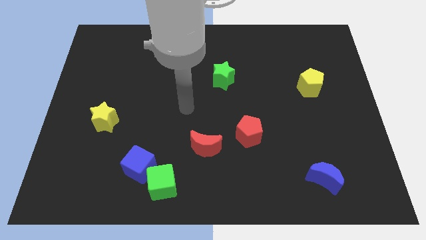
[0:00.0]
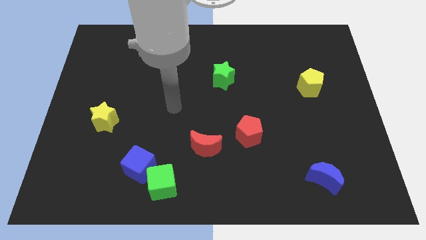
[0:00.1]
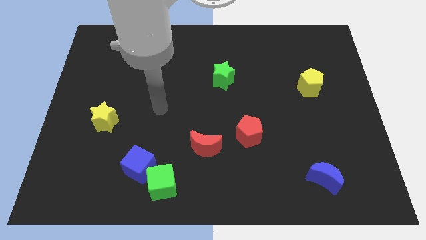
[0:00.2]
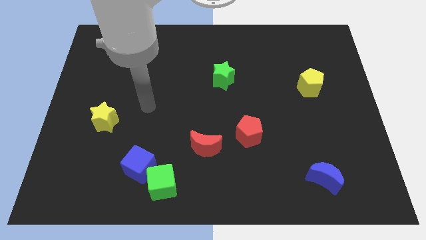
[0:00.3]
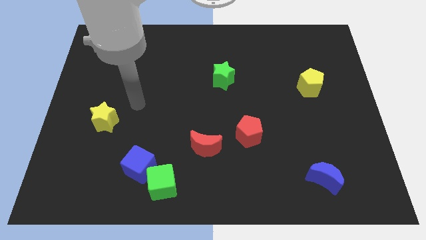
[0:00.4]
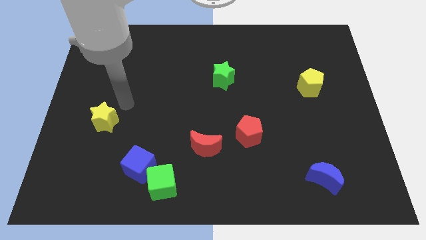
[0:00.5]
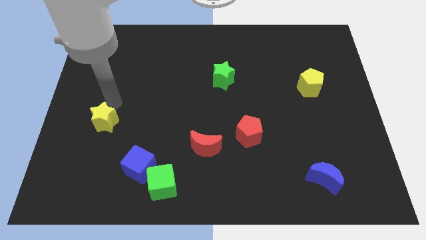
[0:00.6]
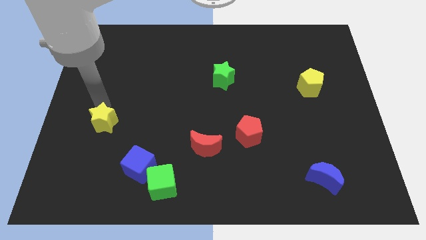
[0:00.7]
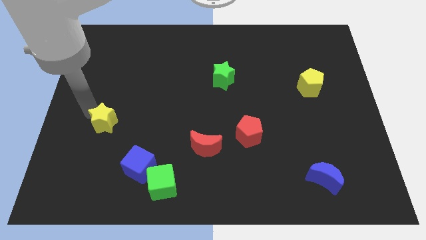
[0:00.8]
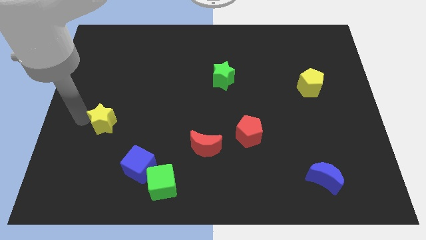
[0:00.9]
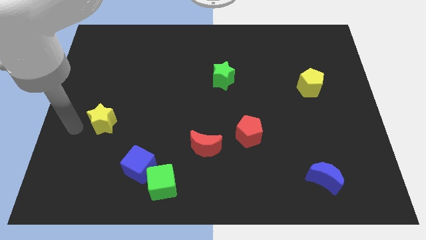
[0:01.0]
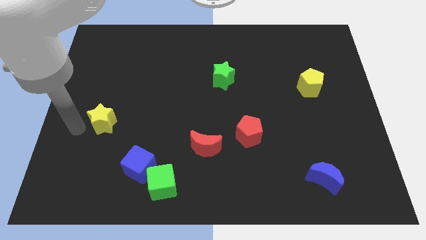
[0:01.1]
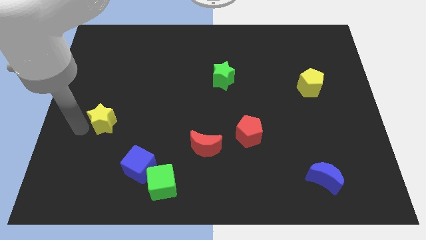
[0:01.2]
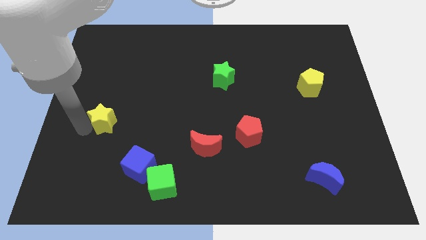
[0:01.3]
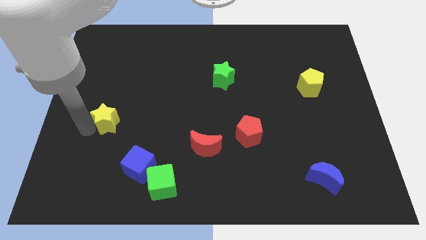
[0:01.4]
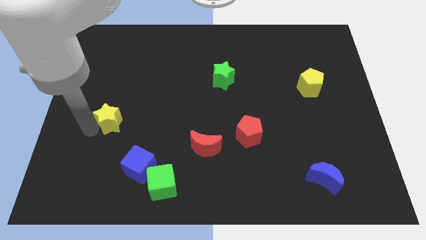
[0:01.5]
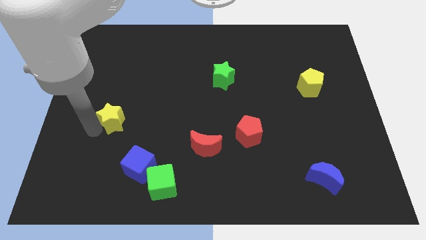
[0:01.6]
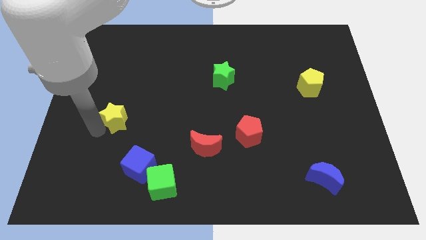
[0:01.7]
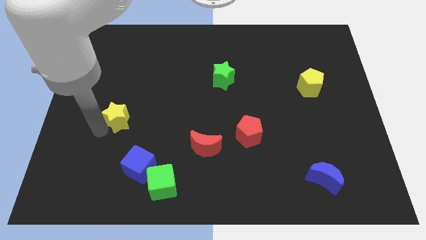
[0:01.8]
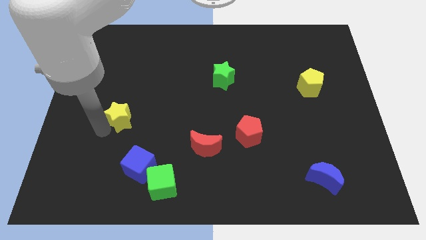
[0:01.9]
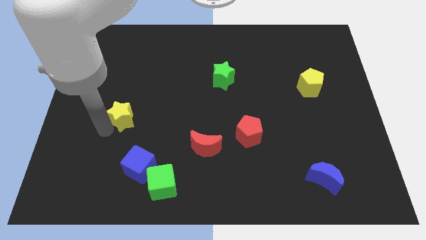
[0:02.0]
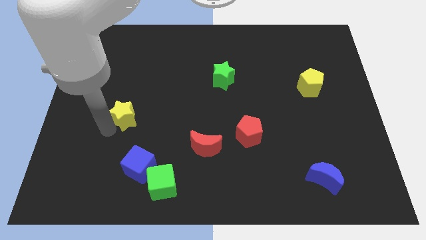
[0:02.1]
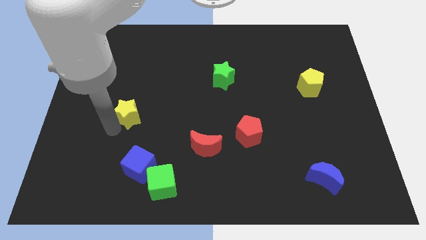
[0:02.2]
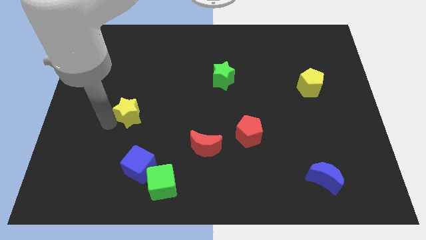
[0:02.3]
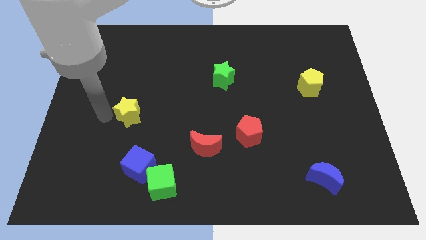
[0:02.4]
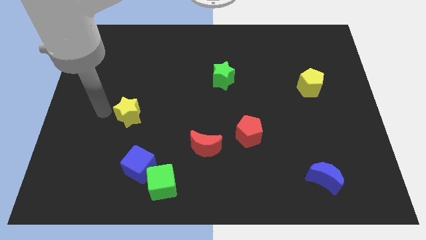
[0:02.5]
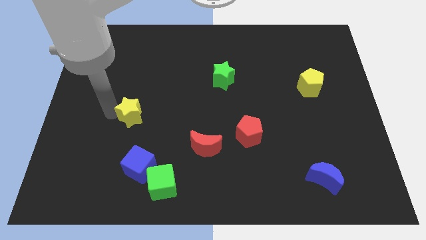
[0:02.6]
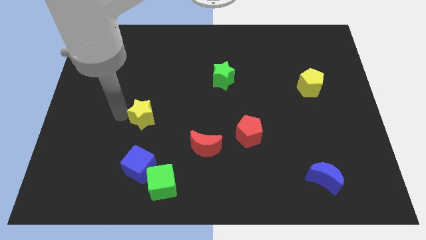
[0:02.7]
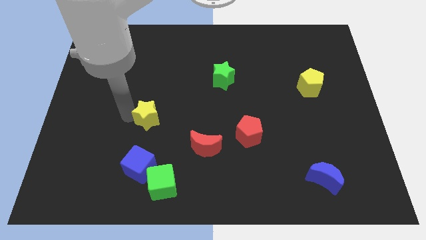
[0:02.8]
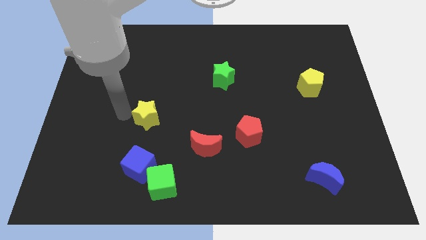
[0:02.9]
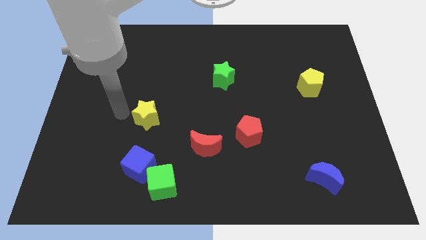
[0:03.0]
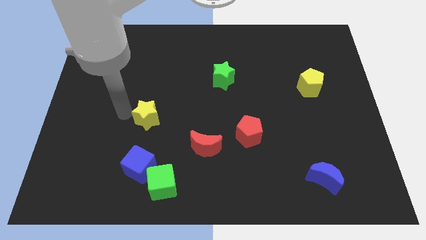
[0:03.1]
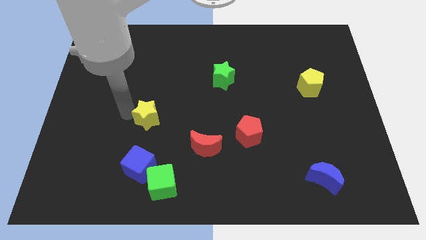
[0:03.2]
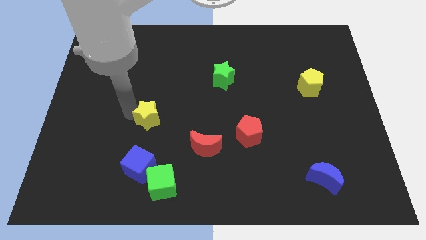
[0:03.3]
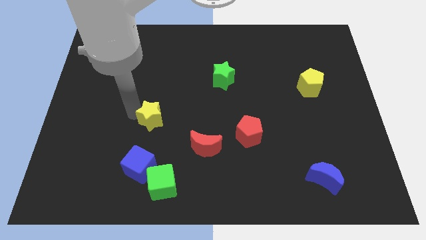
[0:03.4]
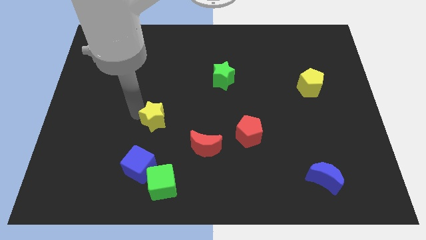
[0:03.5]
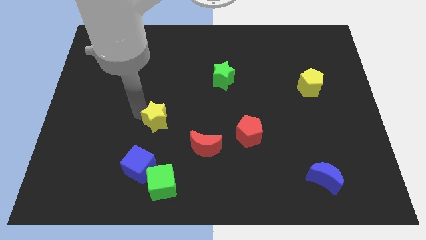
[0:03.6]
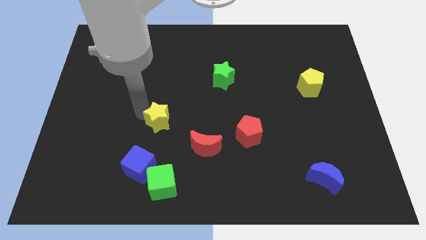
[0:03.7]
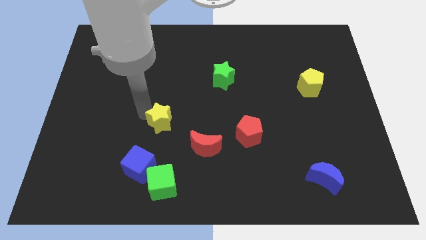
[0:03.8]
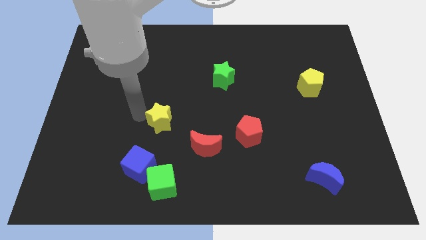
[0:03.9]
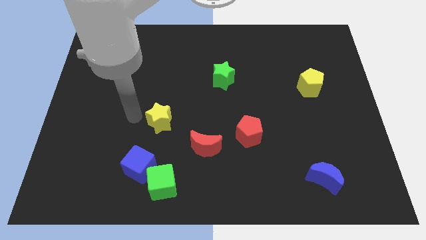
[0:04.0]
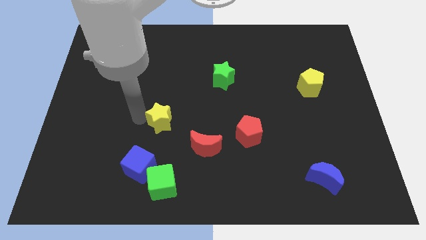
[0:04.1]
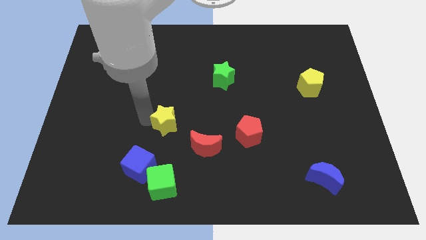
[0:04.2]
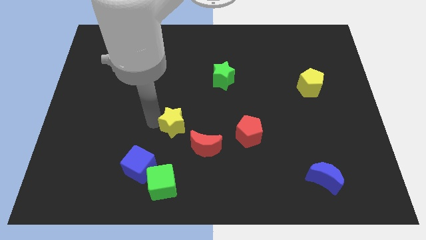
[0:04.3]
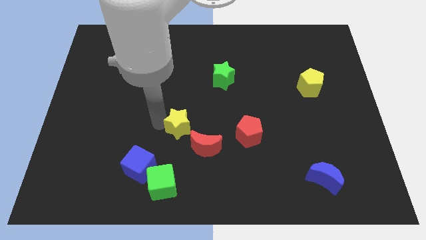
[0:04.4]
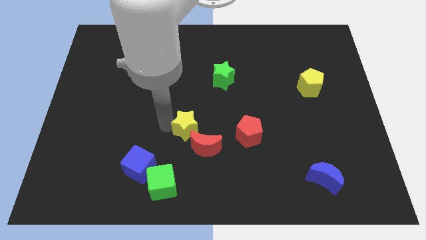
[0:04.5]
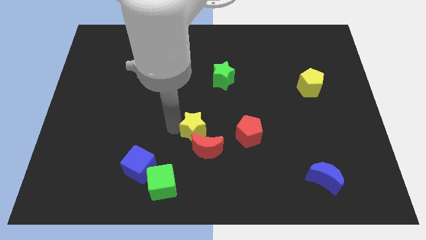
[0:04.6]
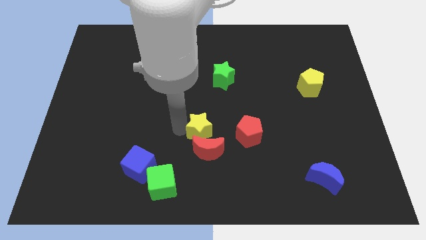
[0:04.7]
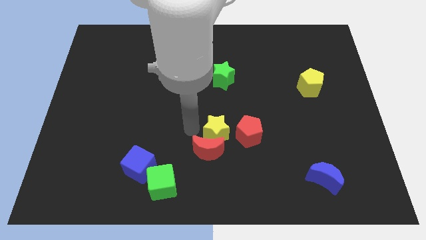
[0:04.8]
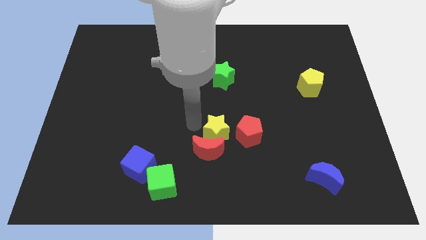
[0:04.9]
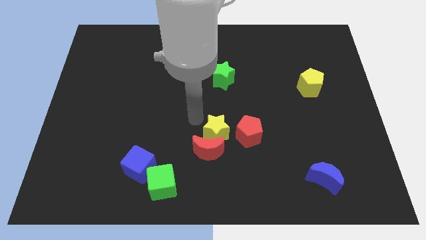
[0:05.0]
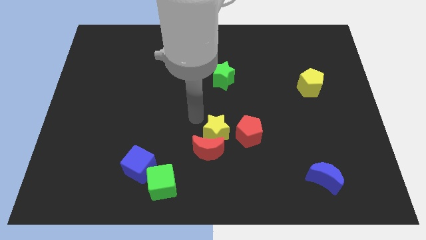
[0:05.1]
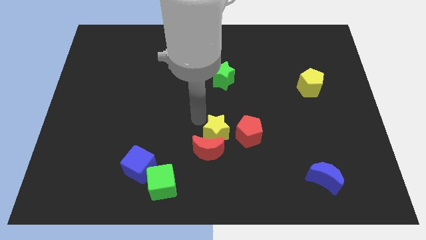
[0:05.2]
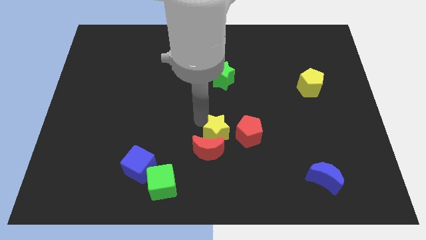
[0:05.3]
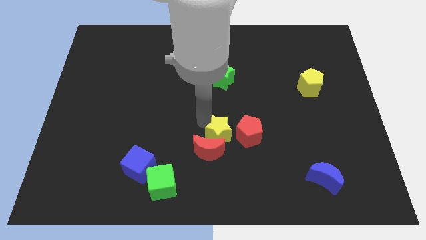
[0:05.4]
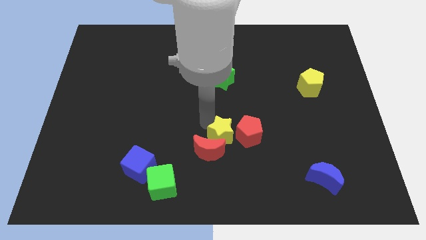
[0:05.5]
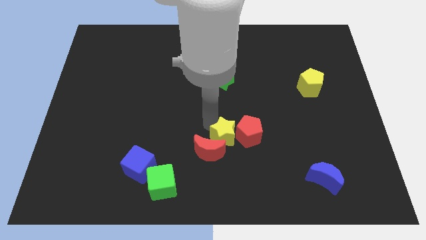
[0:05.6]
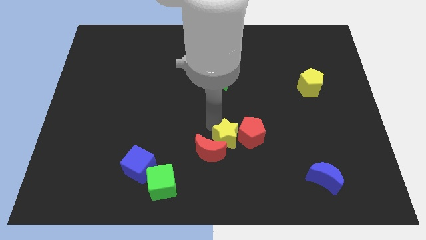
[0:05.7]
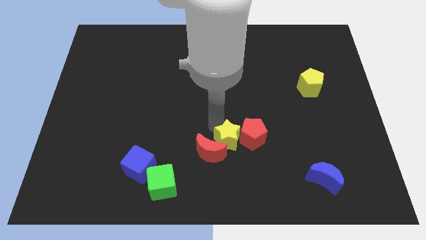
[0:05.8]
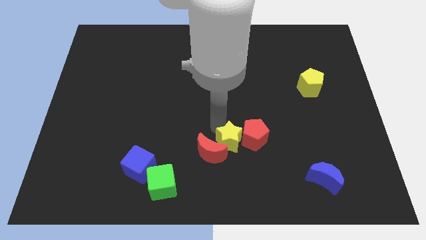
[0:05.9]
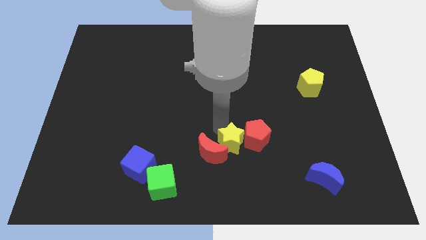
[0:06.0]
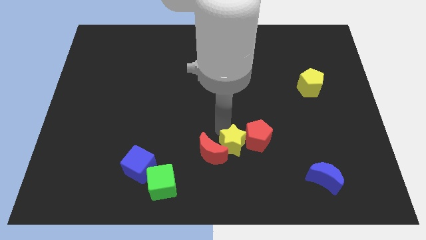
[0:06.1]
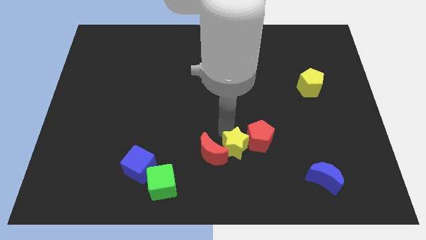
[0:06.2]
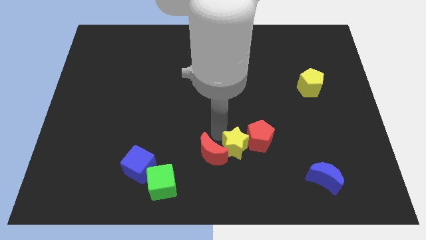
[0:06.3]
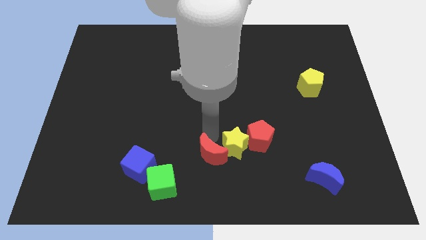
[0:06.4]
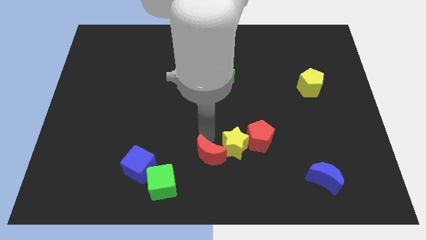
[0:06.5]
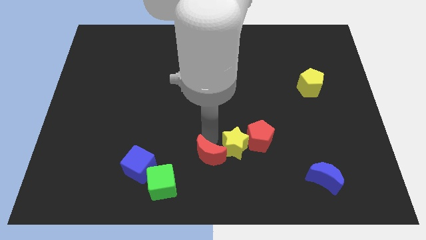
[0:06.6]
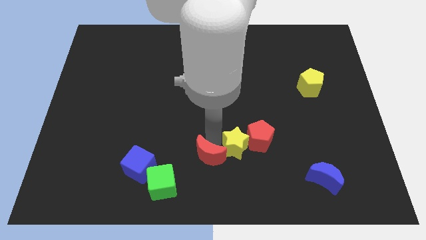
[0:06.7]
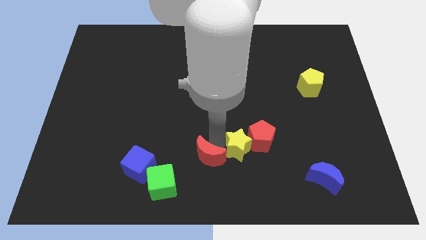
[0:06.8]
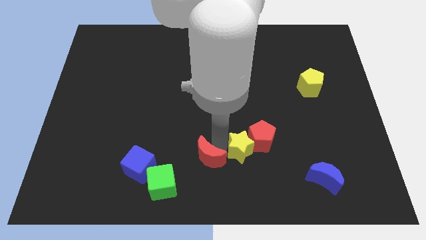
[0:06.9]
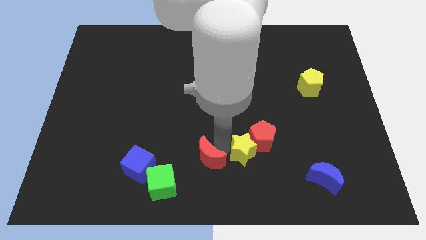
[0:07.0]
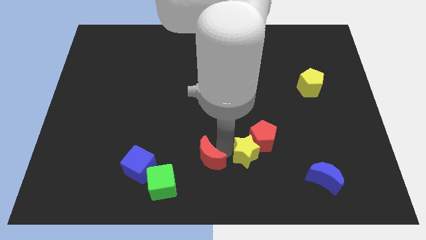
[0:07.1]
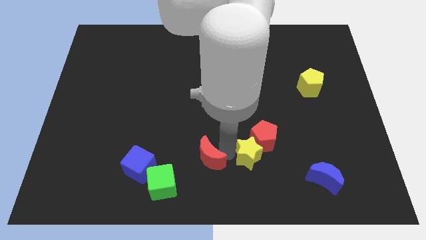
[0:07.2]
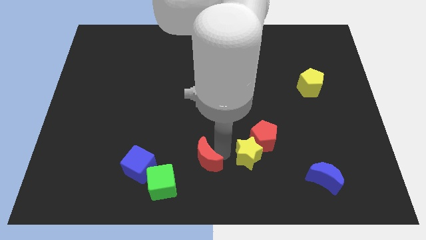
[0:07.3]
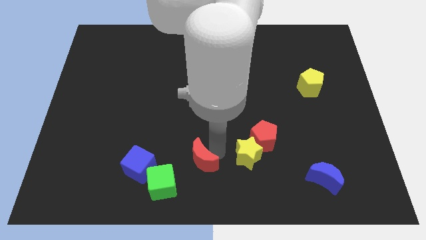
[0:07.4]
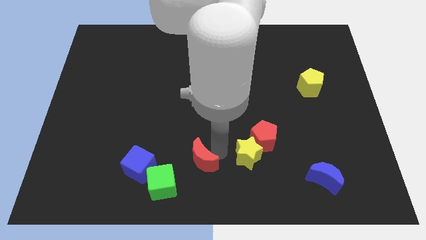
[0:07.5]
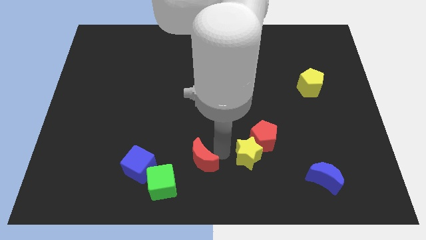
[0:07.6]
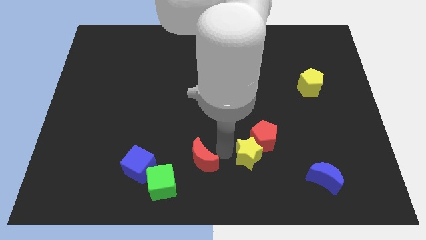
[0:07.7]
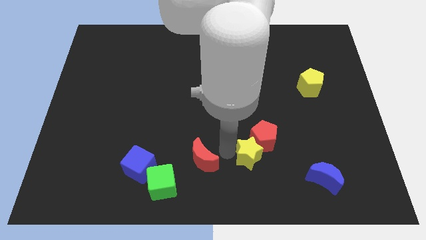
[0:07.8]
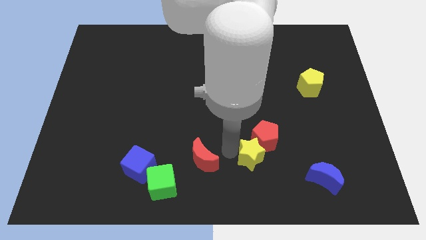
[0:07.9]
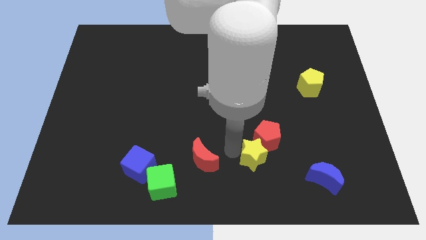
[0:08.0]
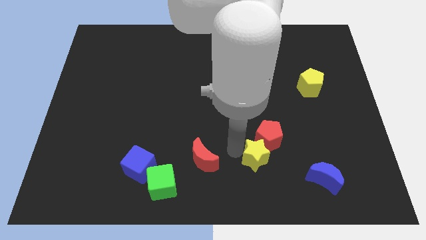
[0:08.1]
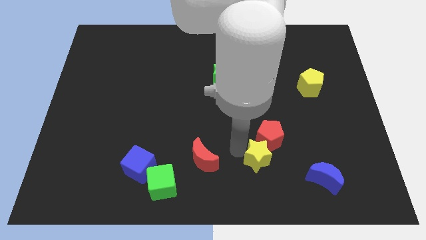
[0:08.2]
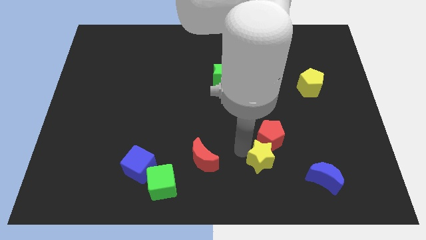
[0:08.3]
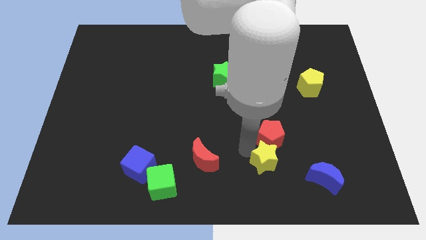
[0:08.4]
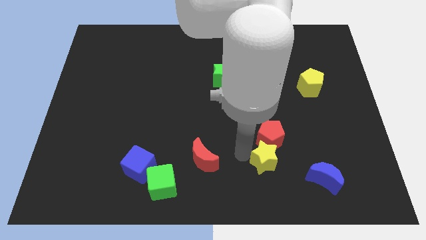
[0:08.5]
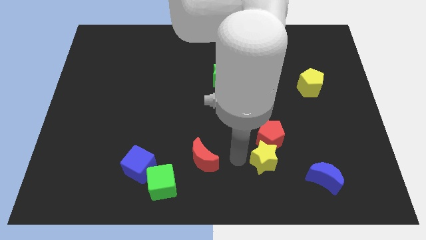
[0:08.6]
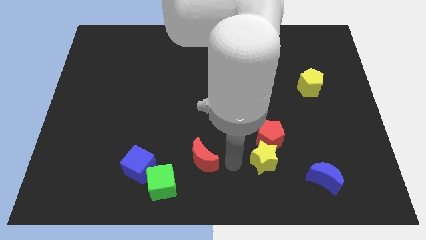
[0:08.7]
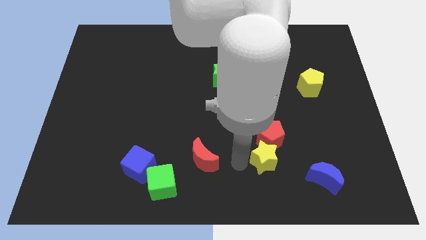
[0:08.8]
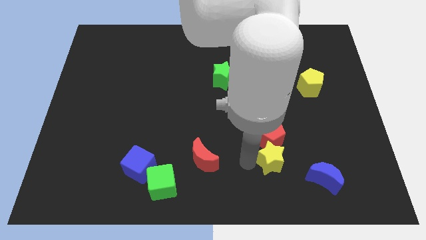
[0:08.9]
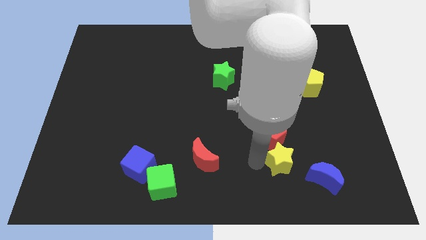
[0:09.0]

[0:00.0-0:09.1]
slide the yellow star to the top left side of the blue moon
